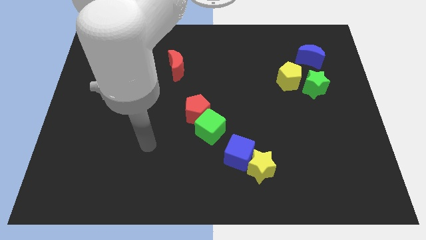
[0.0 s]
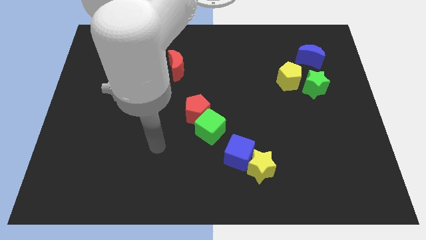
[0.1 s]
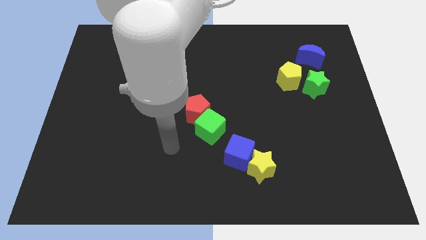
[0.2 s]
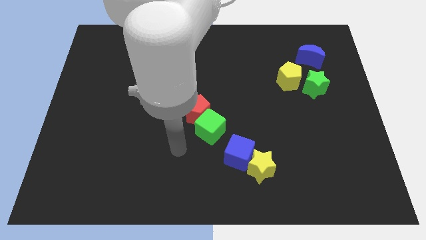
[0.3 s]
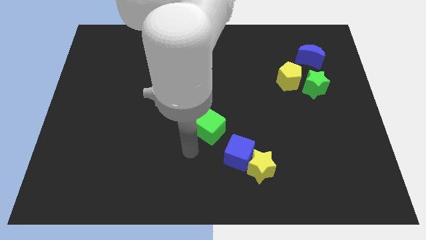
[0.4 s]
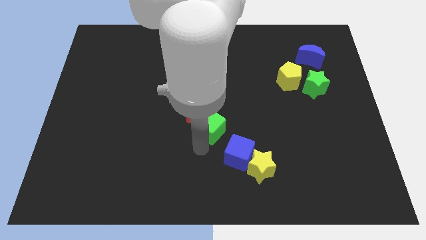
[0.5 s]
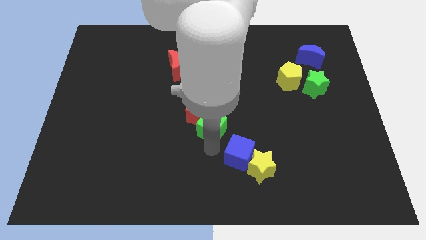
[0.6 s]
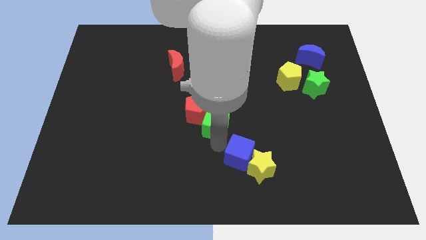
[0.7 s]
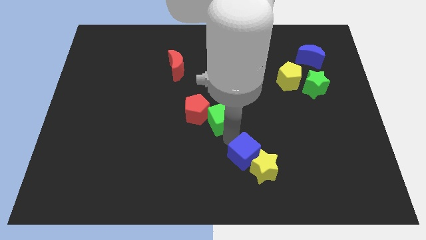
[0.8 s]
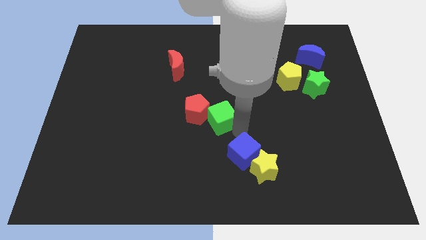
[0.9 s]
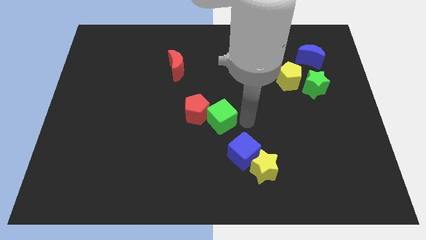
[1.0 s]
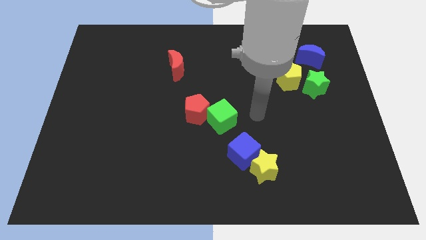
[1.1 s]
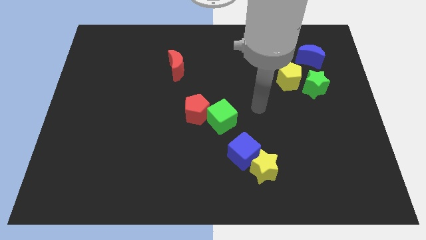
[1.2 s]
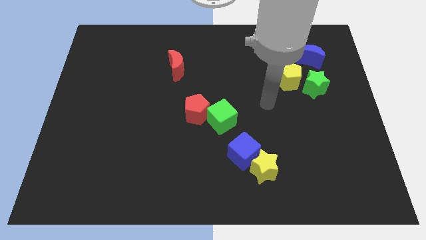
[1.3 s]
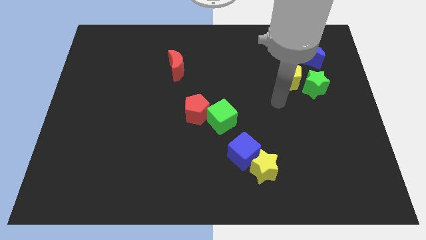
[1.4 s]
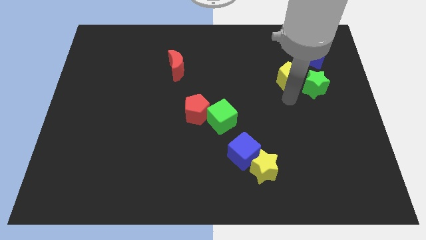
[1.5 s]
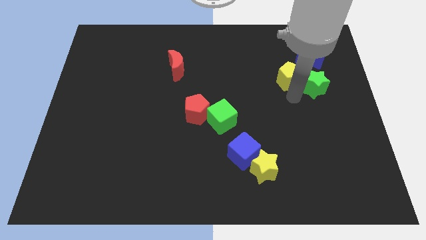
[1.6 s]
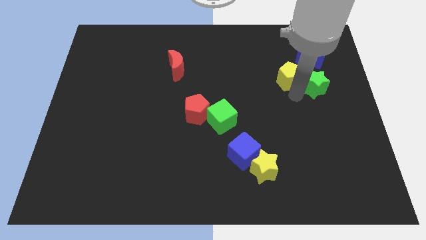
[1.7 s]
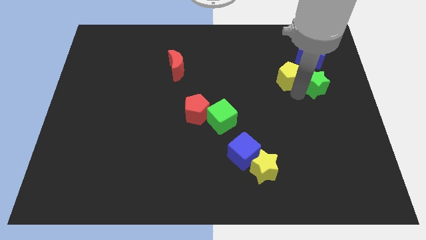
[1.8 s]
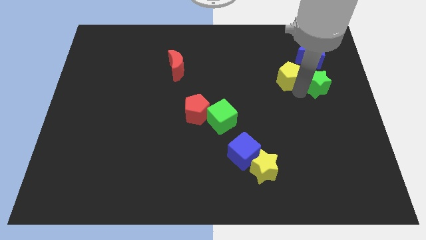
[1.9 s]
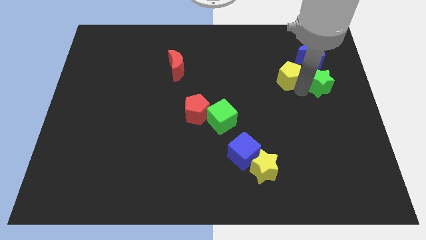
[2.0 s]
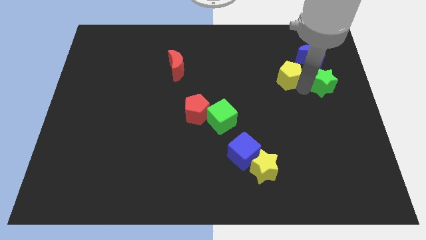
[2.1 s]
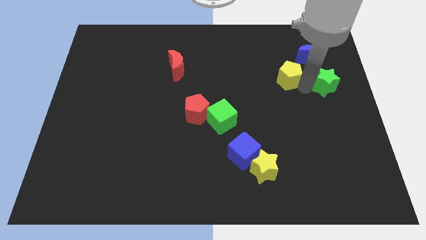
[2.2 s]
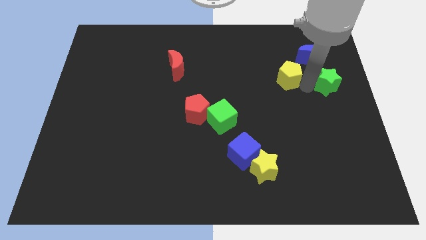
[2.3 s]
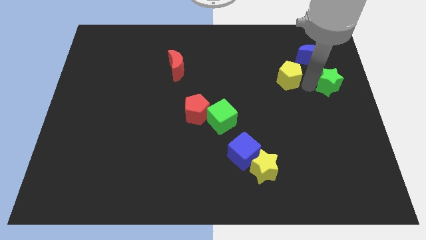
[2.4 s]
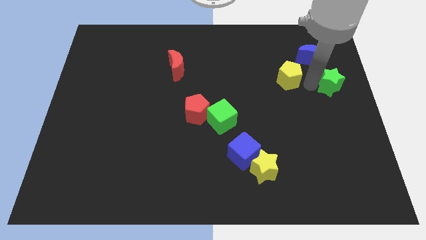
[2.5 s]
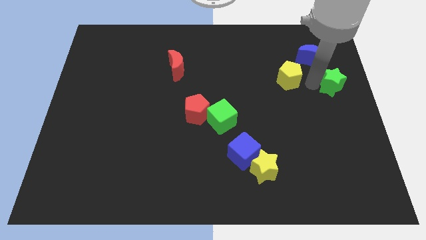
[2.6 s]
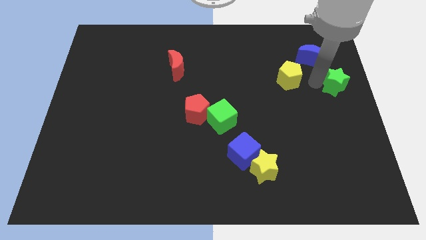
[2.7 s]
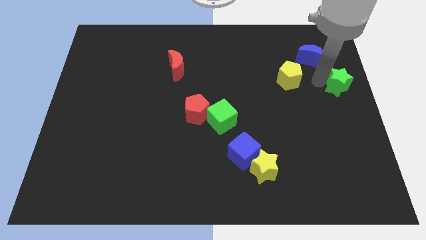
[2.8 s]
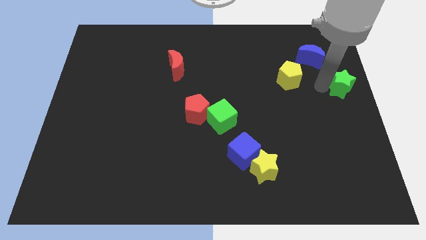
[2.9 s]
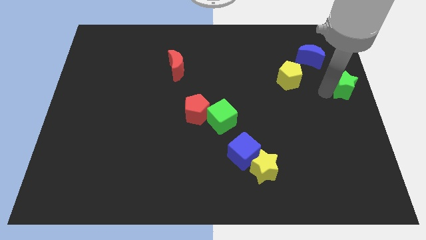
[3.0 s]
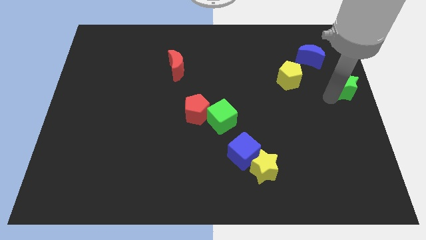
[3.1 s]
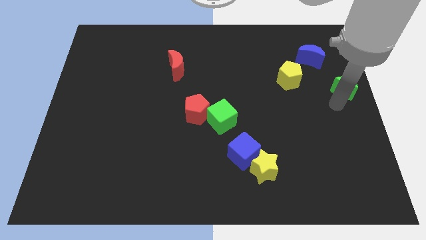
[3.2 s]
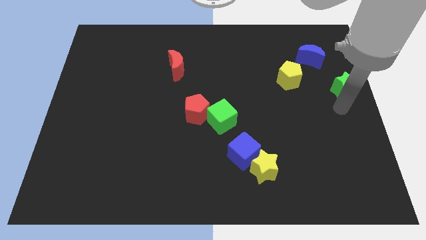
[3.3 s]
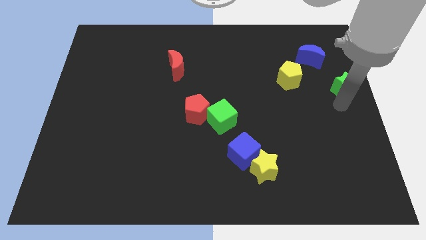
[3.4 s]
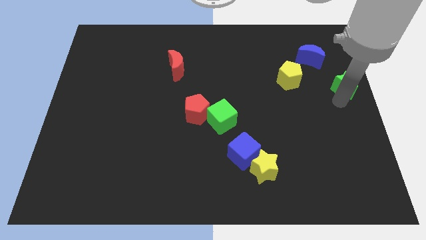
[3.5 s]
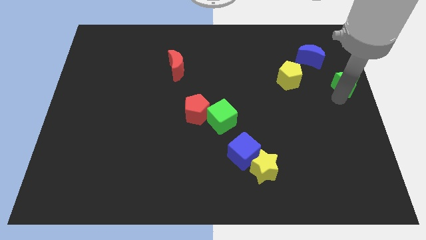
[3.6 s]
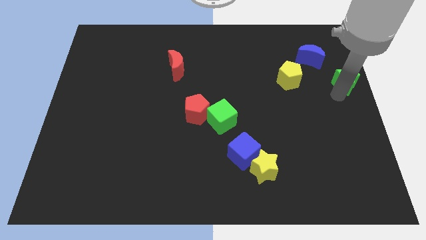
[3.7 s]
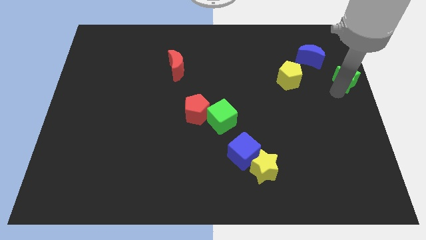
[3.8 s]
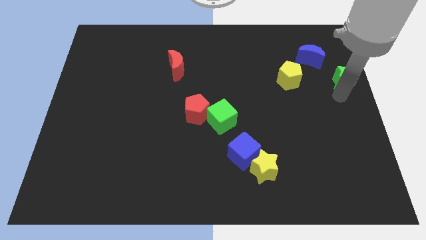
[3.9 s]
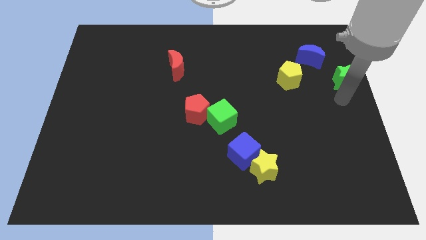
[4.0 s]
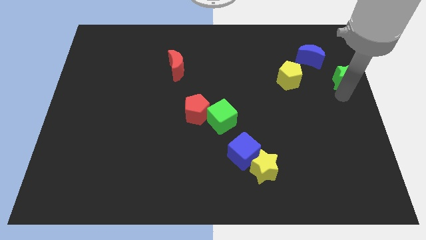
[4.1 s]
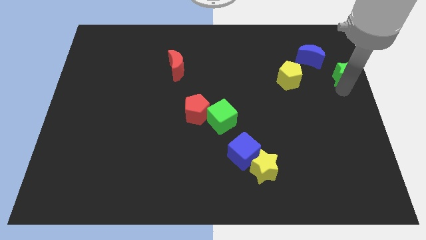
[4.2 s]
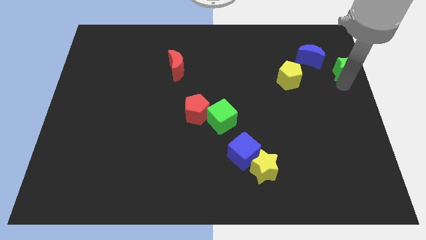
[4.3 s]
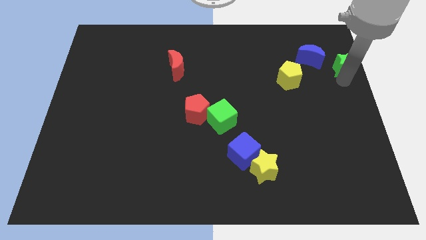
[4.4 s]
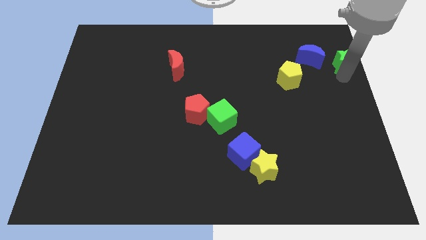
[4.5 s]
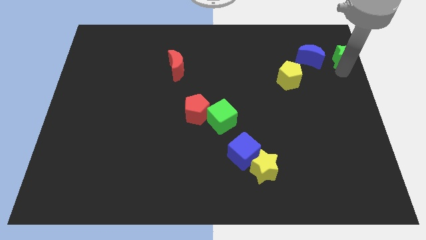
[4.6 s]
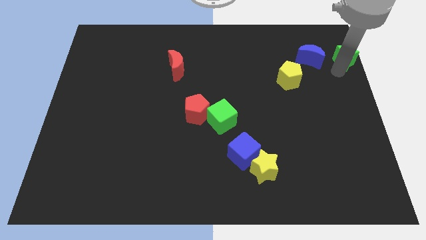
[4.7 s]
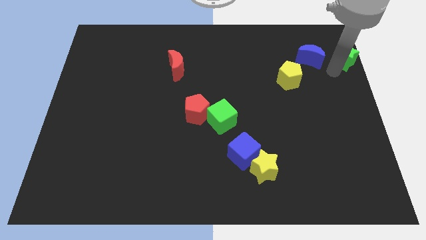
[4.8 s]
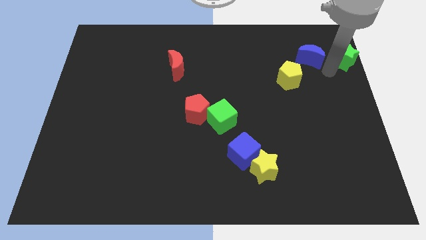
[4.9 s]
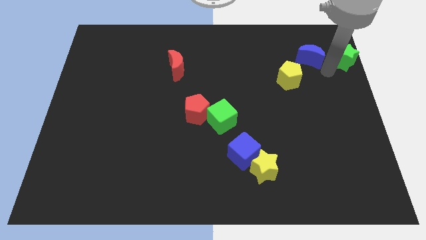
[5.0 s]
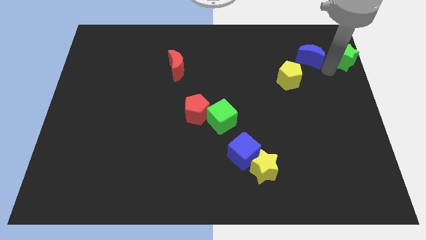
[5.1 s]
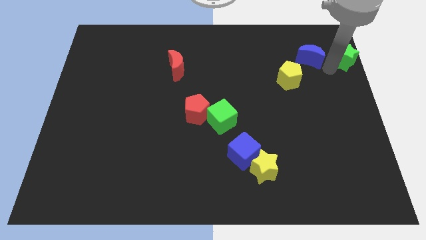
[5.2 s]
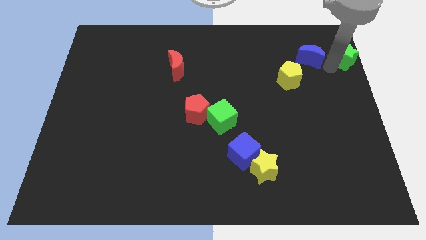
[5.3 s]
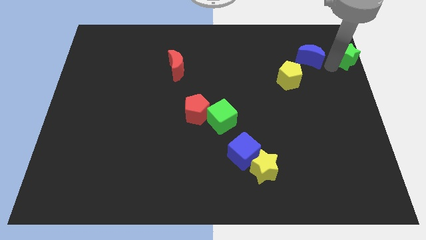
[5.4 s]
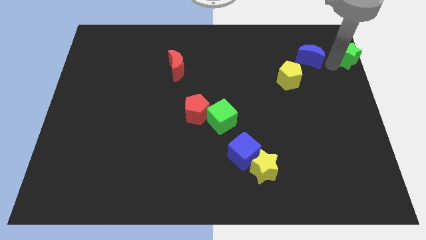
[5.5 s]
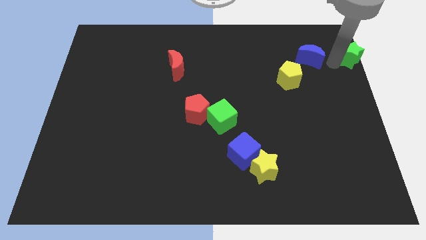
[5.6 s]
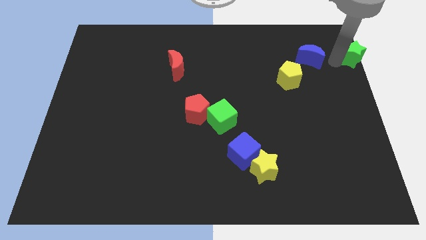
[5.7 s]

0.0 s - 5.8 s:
move the green star to the top right corner

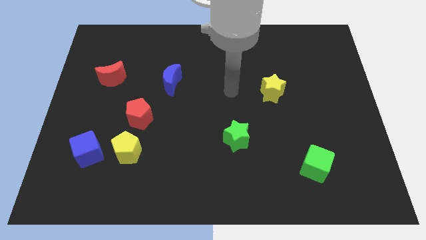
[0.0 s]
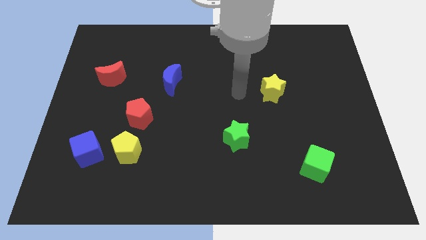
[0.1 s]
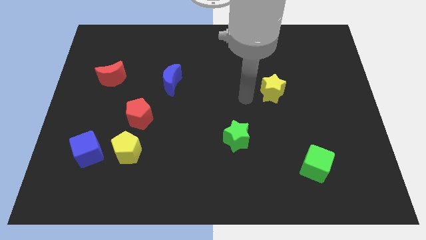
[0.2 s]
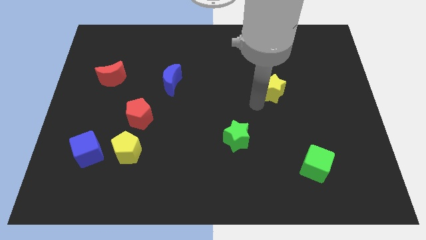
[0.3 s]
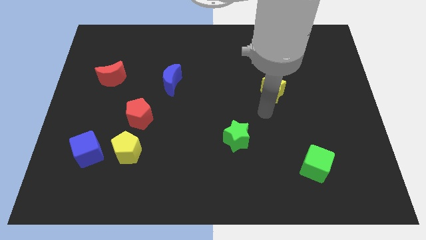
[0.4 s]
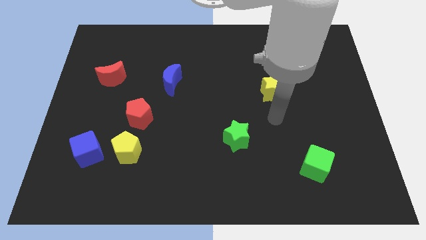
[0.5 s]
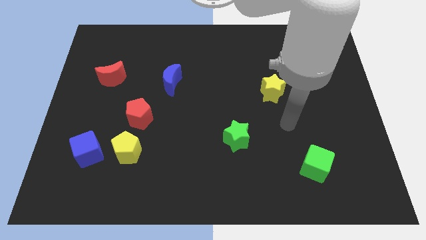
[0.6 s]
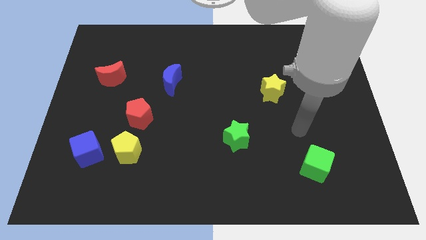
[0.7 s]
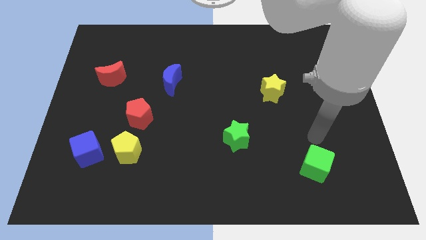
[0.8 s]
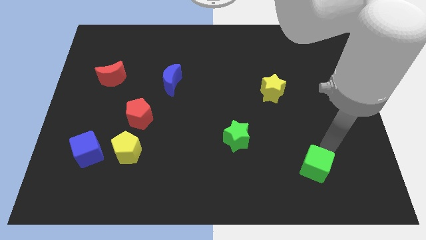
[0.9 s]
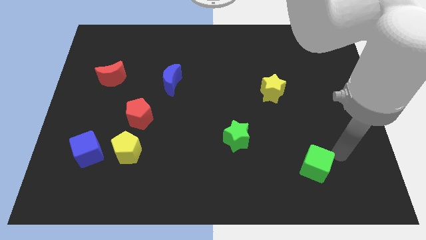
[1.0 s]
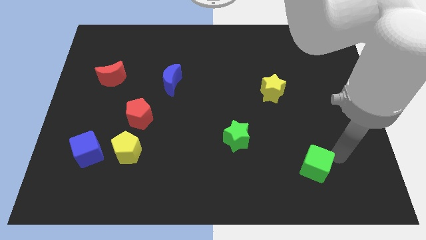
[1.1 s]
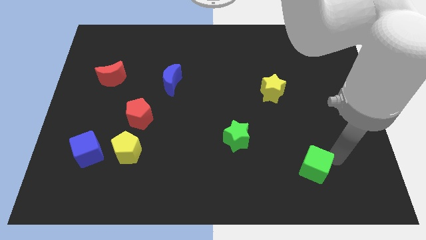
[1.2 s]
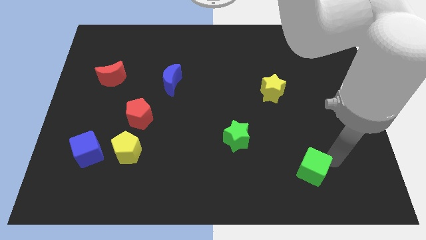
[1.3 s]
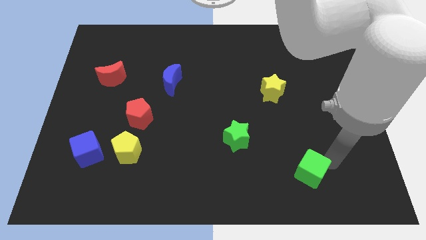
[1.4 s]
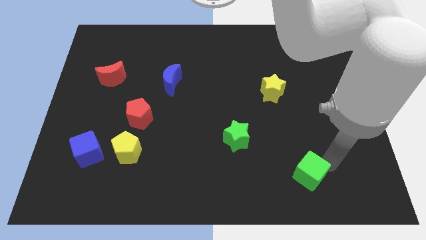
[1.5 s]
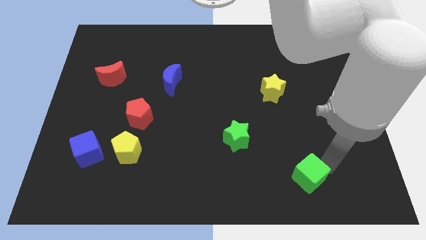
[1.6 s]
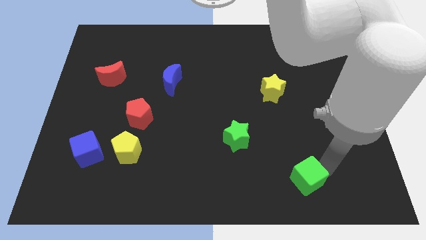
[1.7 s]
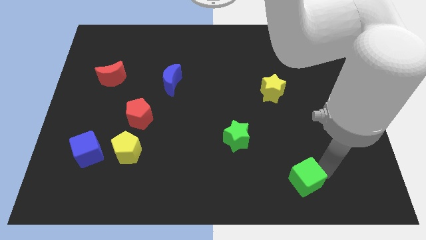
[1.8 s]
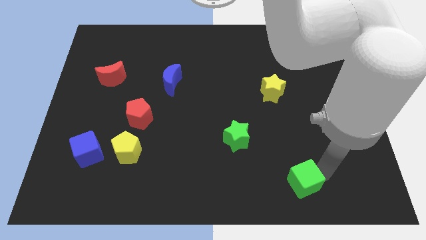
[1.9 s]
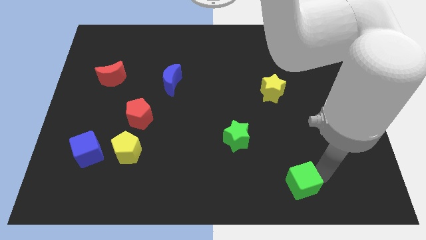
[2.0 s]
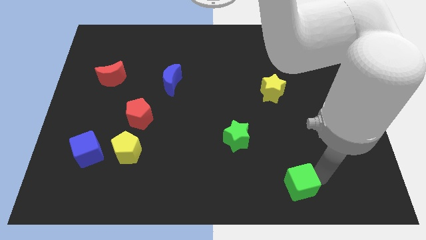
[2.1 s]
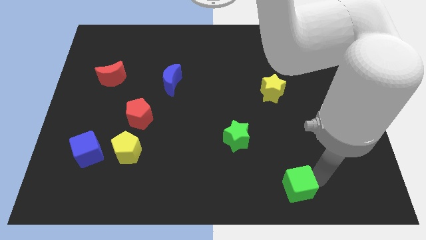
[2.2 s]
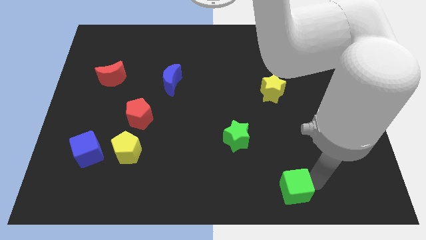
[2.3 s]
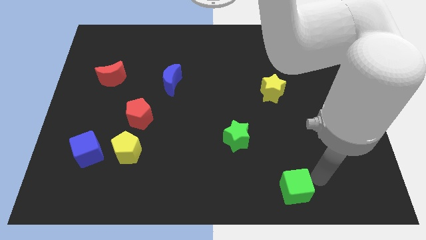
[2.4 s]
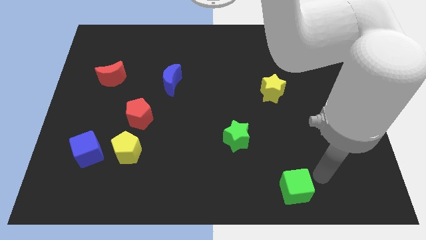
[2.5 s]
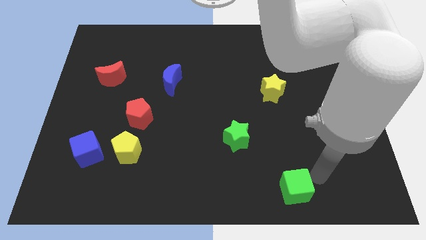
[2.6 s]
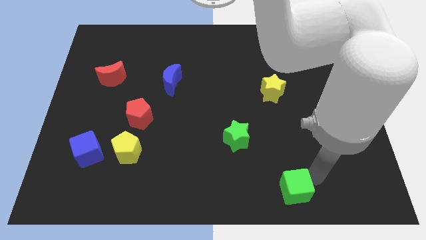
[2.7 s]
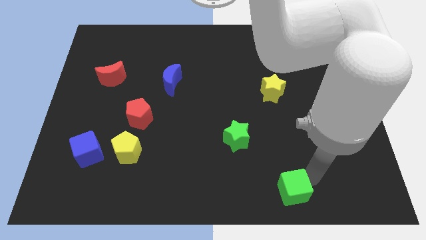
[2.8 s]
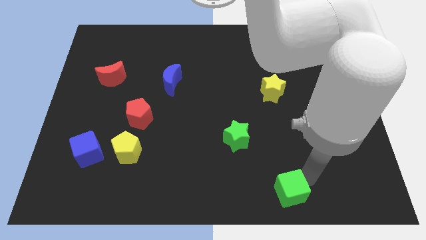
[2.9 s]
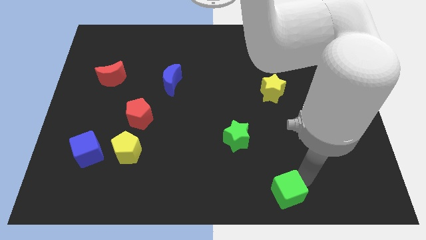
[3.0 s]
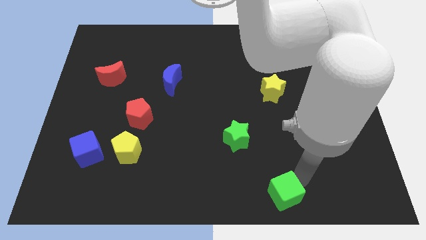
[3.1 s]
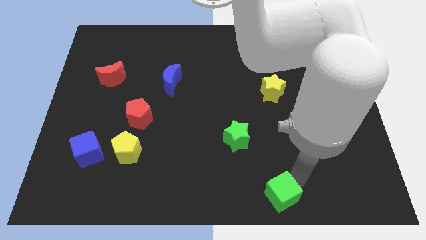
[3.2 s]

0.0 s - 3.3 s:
slide the green cube to the bottom side
